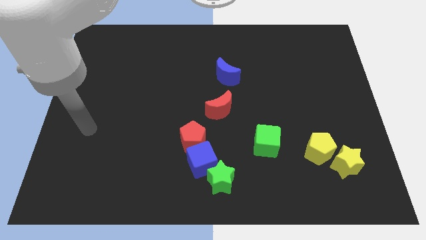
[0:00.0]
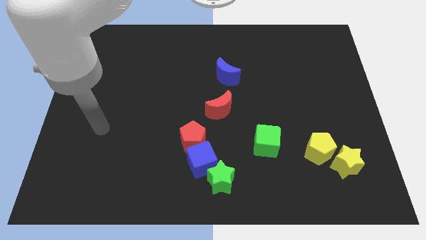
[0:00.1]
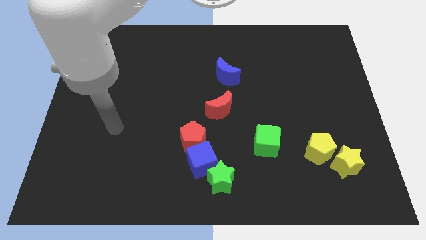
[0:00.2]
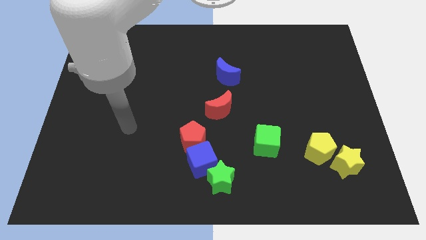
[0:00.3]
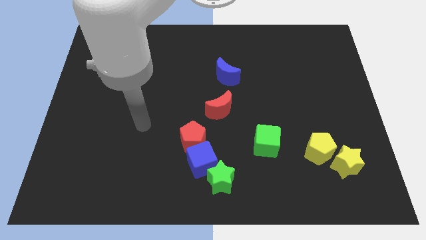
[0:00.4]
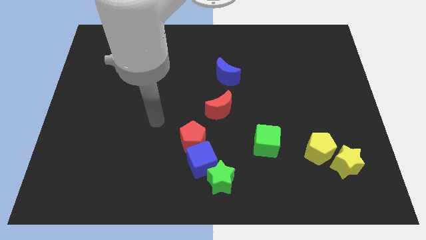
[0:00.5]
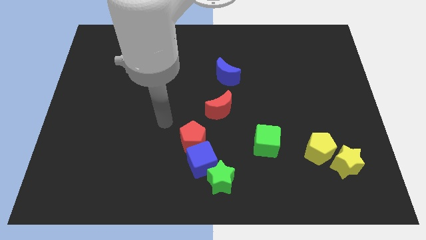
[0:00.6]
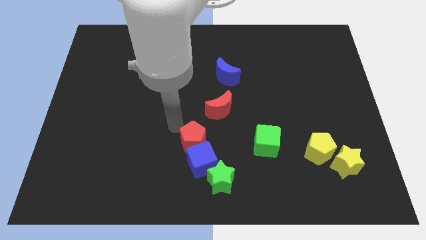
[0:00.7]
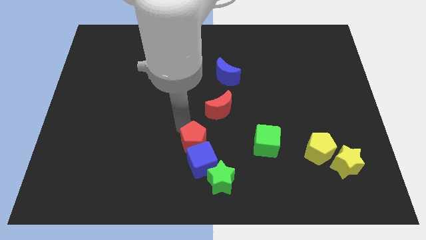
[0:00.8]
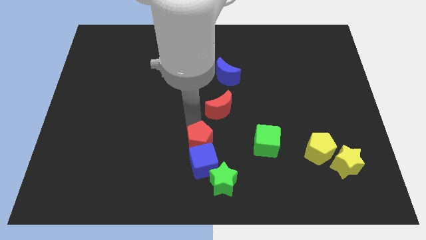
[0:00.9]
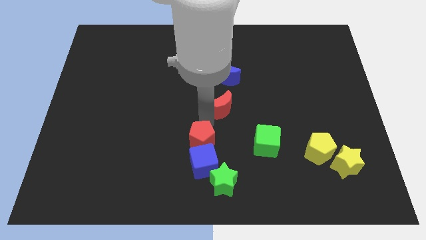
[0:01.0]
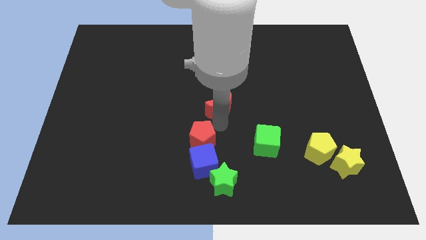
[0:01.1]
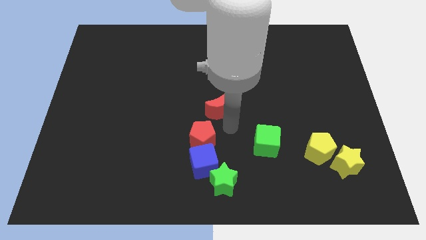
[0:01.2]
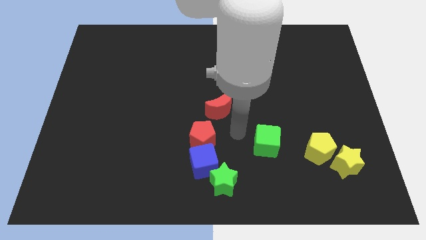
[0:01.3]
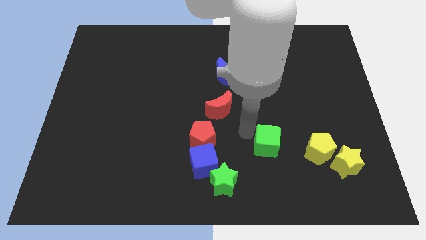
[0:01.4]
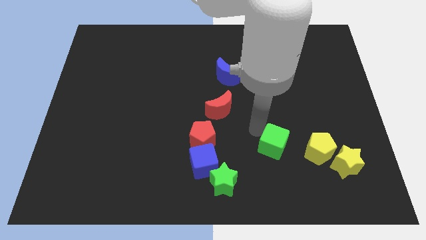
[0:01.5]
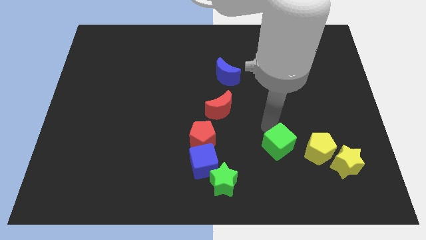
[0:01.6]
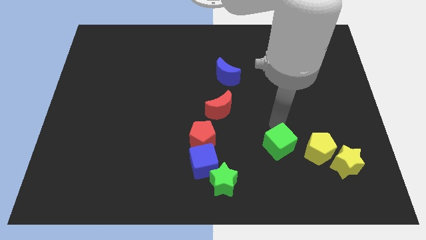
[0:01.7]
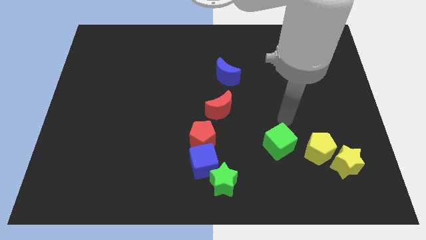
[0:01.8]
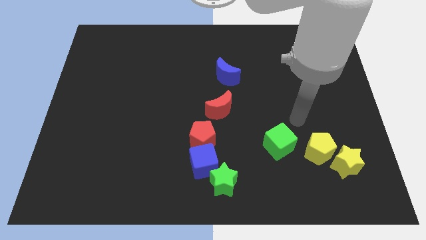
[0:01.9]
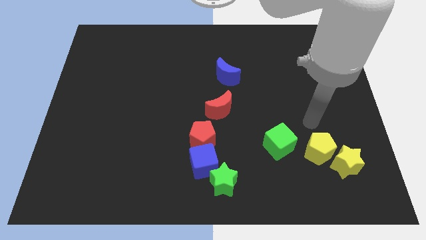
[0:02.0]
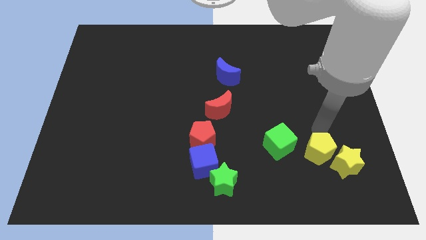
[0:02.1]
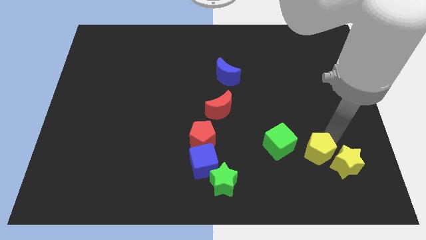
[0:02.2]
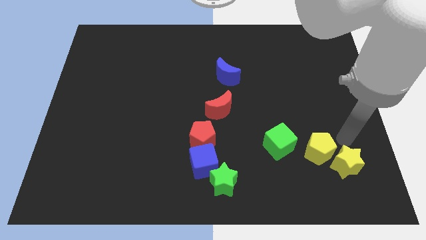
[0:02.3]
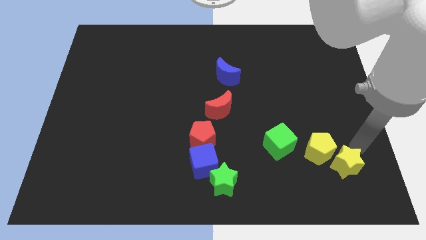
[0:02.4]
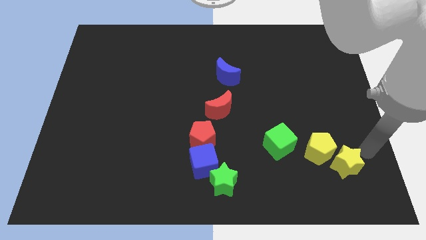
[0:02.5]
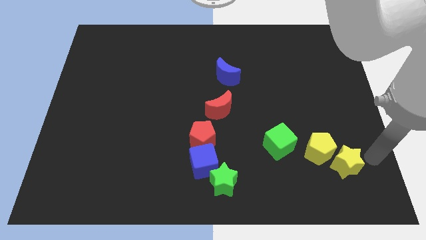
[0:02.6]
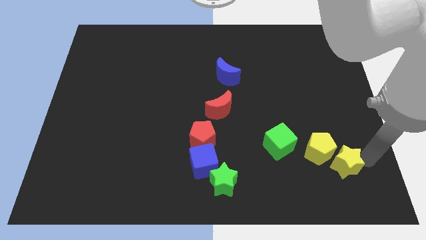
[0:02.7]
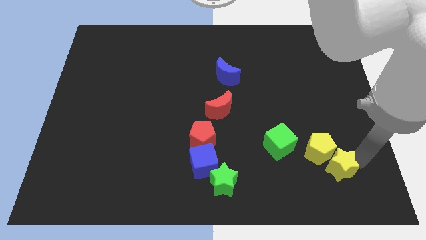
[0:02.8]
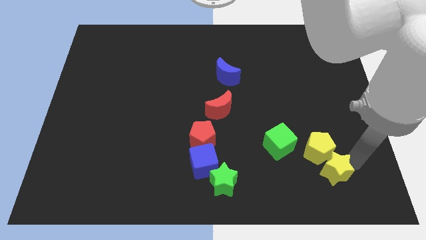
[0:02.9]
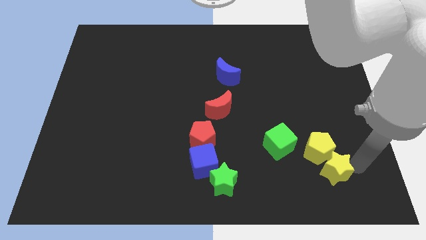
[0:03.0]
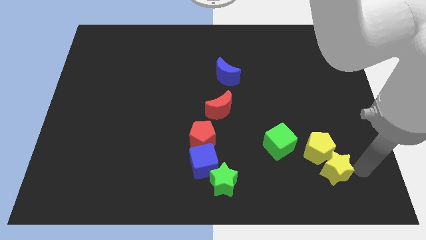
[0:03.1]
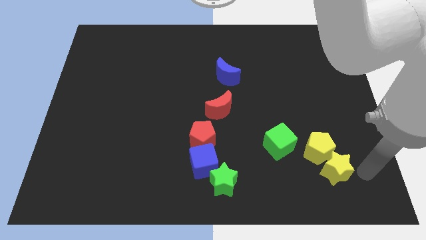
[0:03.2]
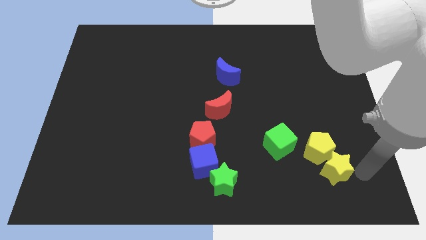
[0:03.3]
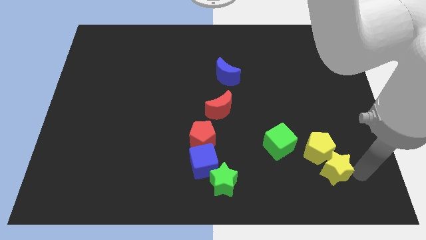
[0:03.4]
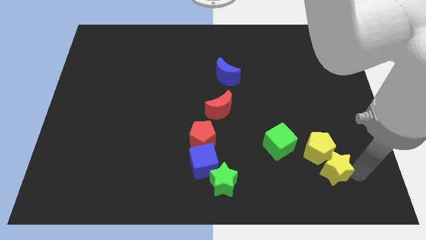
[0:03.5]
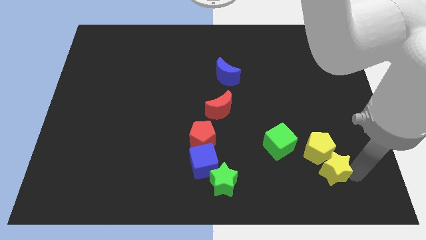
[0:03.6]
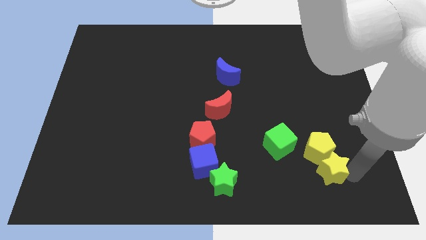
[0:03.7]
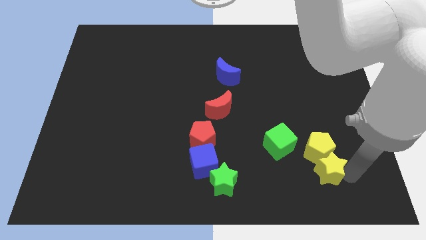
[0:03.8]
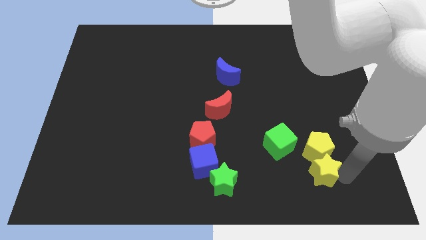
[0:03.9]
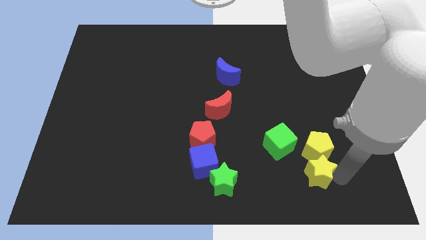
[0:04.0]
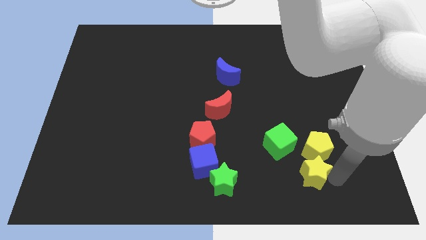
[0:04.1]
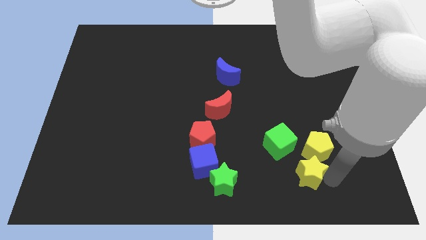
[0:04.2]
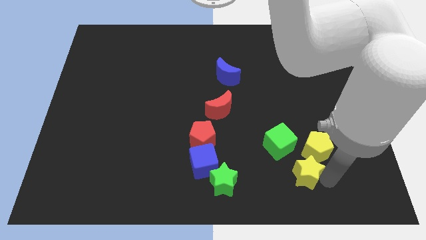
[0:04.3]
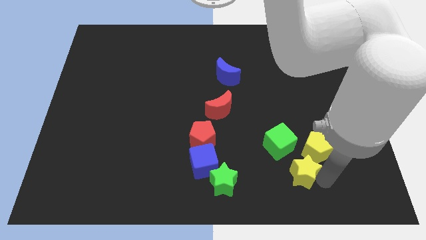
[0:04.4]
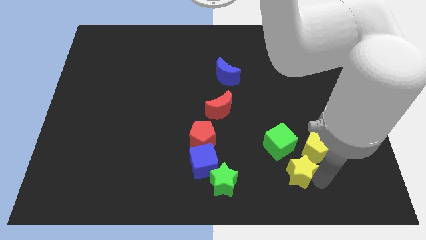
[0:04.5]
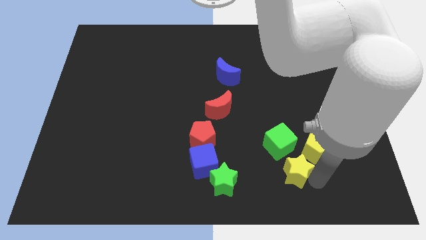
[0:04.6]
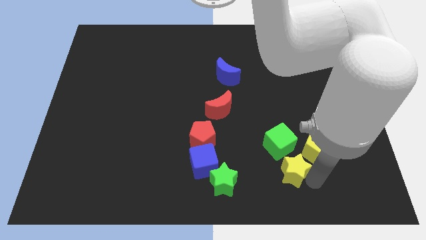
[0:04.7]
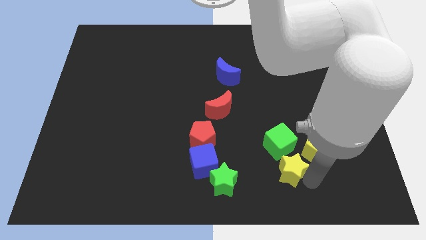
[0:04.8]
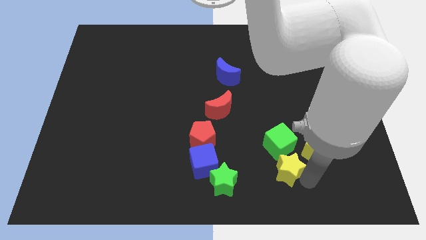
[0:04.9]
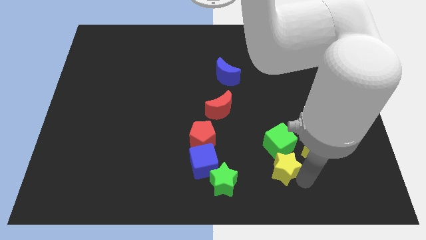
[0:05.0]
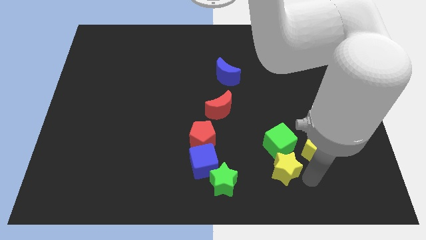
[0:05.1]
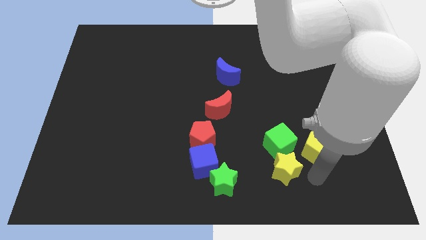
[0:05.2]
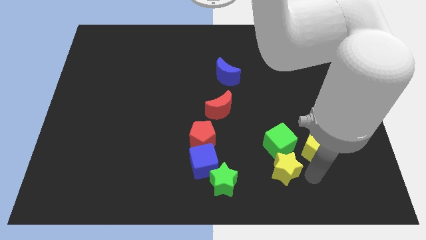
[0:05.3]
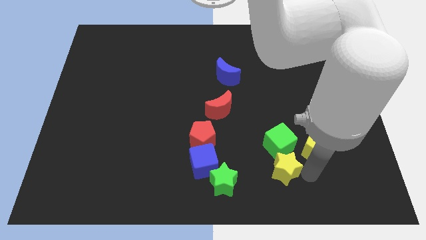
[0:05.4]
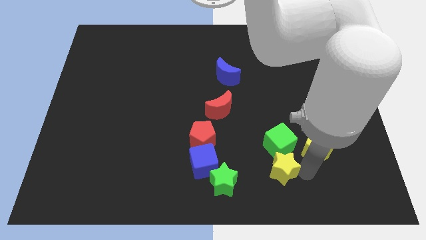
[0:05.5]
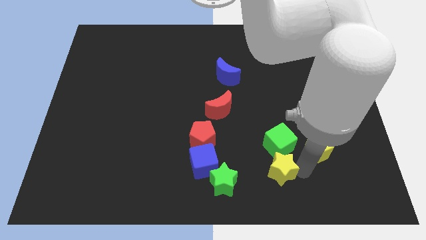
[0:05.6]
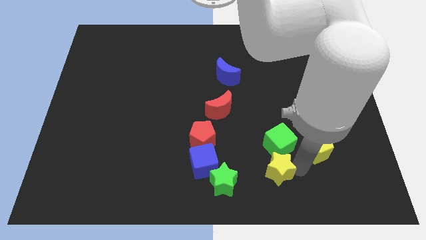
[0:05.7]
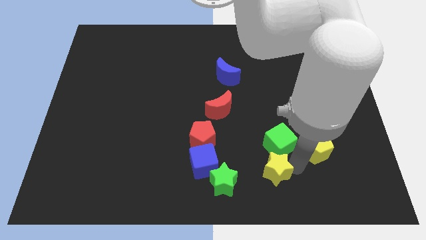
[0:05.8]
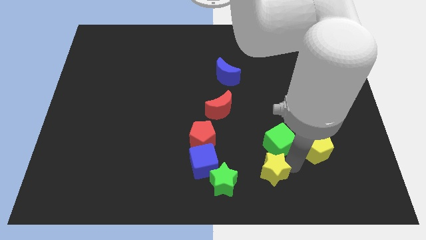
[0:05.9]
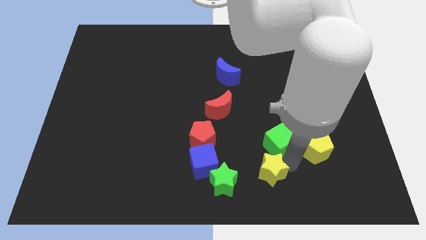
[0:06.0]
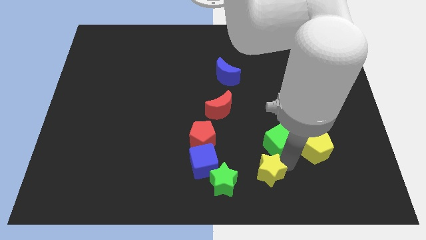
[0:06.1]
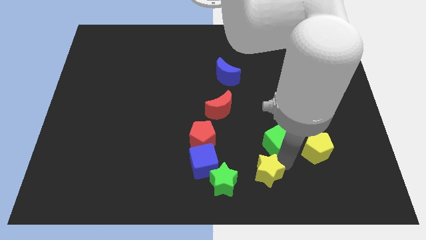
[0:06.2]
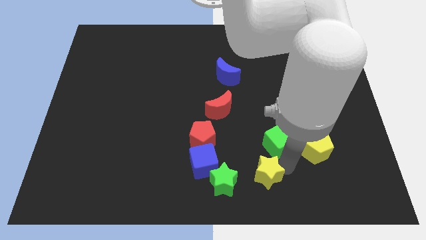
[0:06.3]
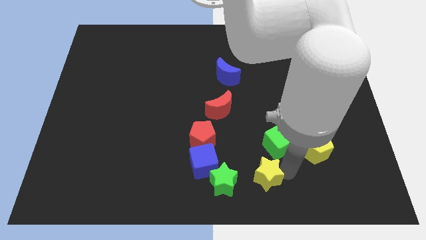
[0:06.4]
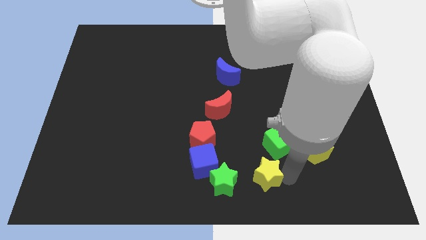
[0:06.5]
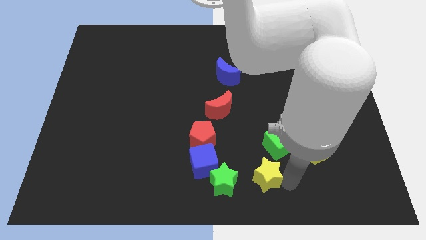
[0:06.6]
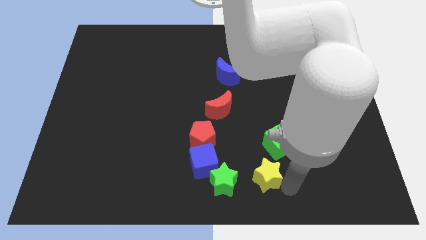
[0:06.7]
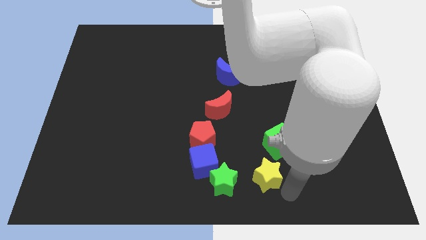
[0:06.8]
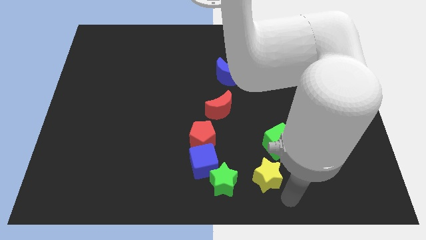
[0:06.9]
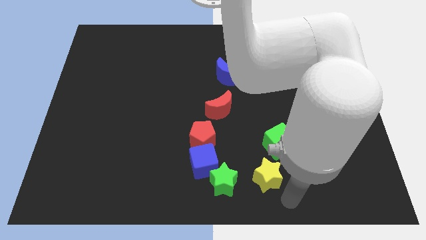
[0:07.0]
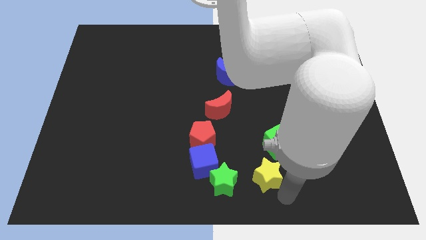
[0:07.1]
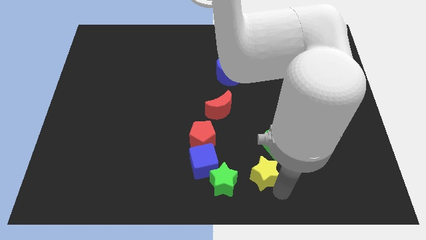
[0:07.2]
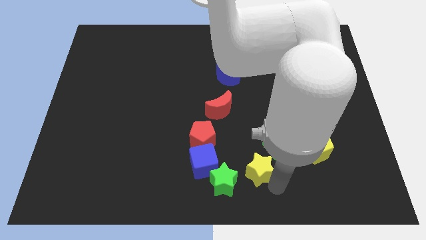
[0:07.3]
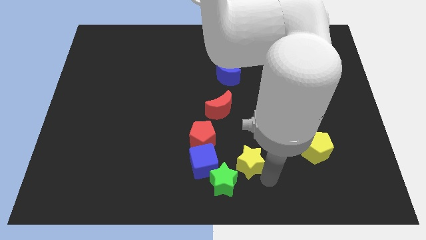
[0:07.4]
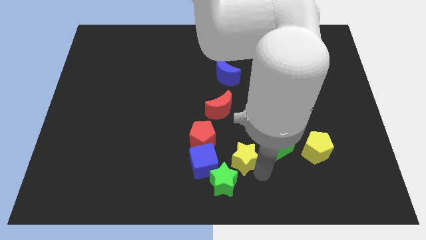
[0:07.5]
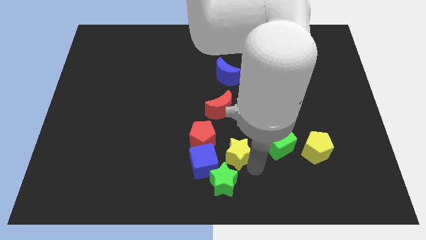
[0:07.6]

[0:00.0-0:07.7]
push the yellow star to the top right of the blue cube

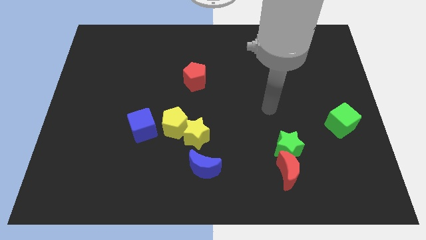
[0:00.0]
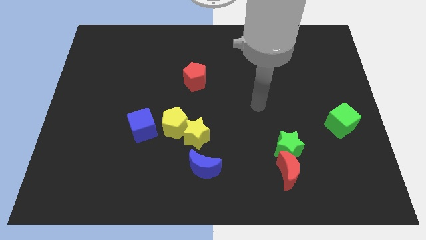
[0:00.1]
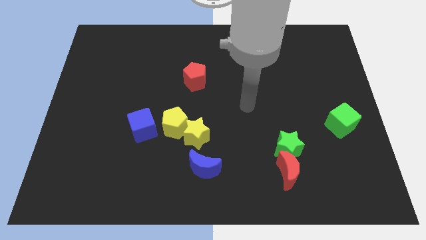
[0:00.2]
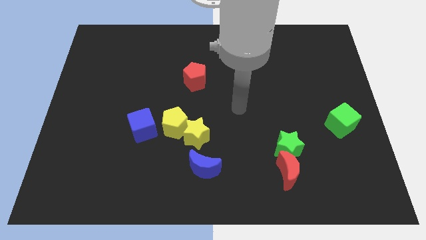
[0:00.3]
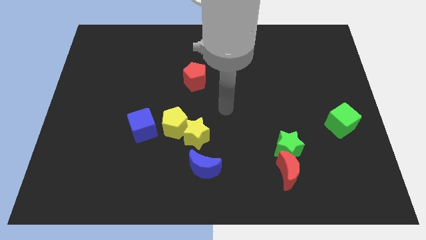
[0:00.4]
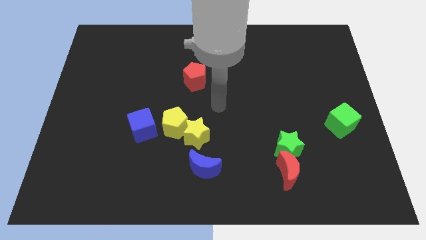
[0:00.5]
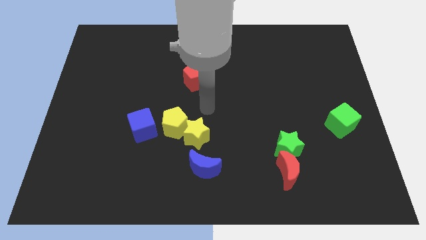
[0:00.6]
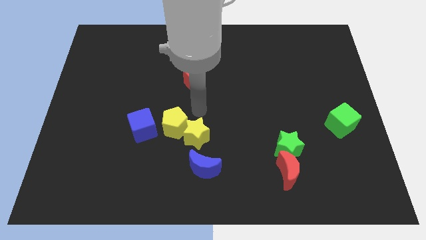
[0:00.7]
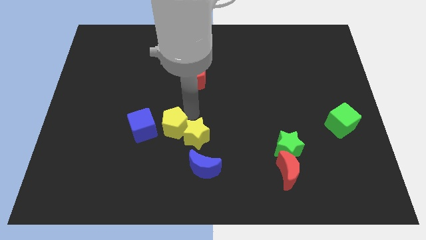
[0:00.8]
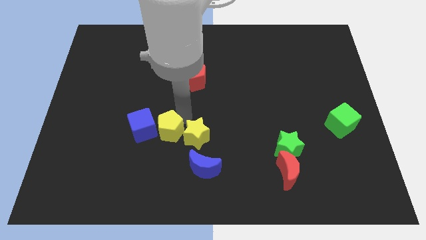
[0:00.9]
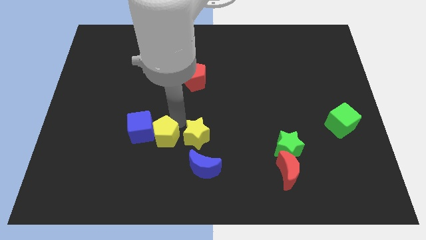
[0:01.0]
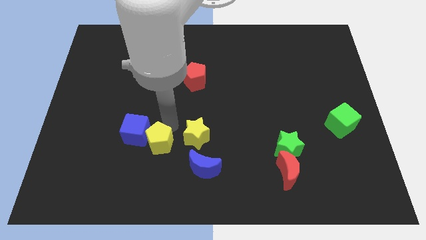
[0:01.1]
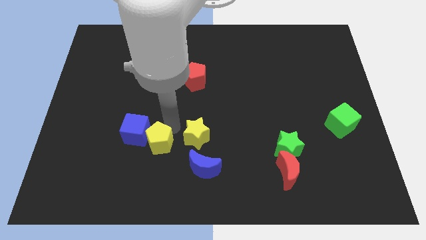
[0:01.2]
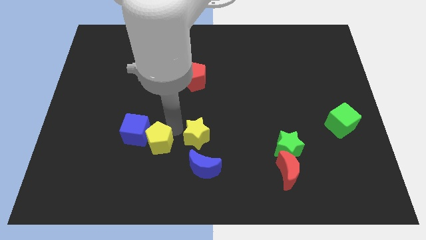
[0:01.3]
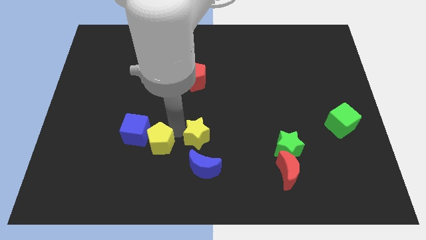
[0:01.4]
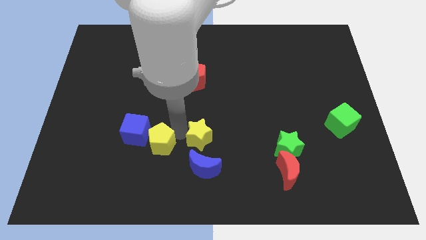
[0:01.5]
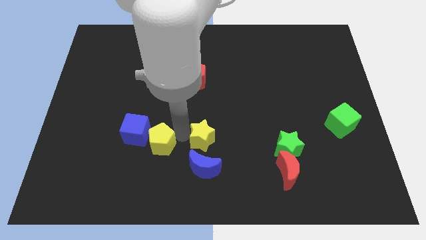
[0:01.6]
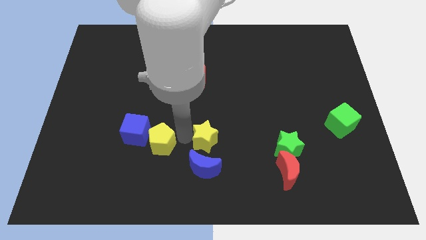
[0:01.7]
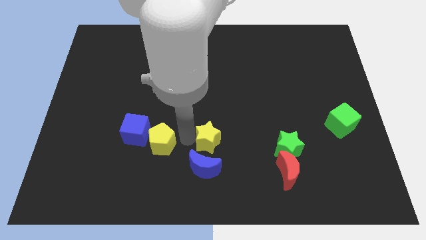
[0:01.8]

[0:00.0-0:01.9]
push the yellow star to the top right of the blue moon
